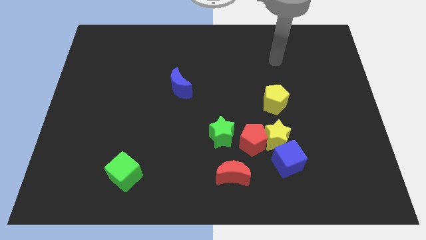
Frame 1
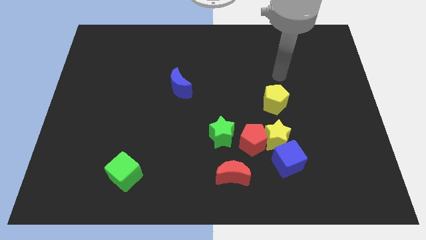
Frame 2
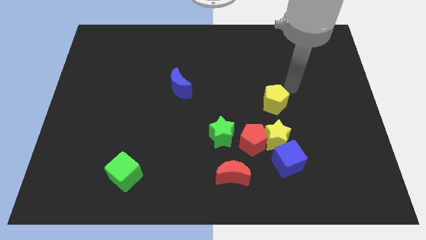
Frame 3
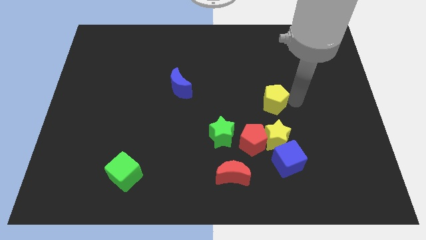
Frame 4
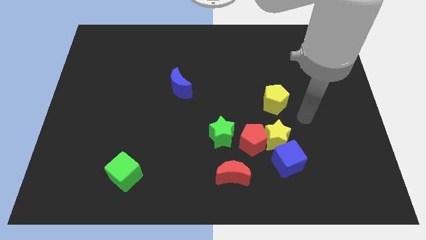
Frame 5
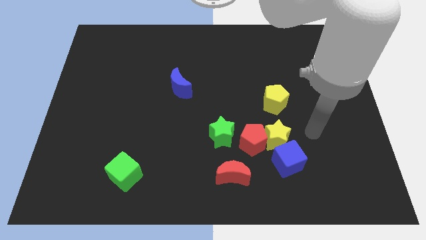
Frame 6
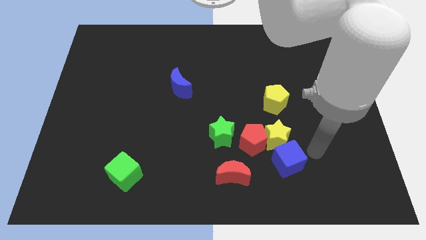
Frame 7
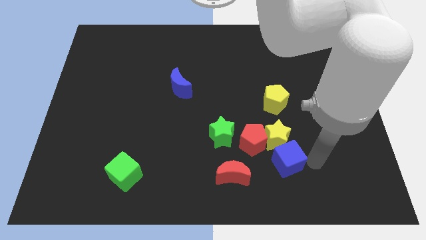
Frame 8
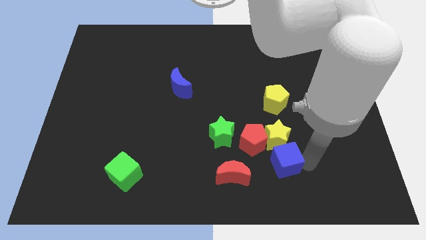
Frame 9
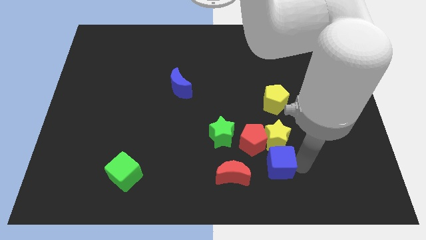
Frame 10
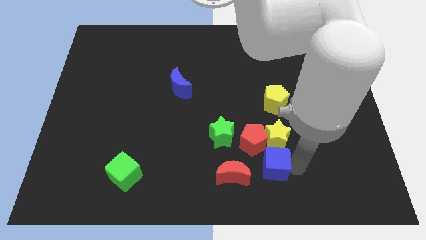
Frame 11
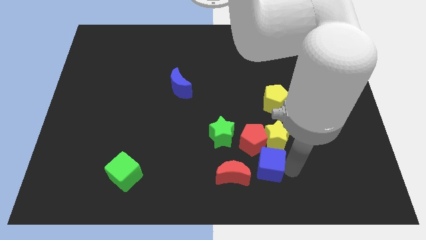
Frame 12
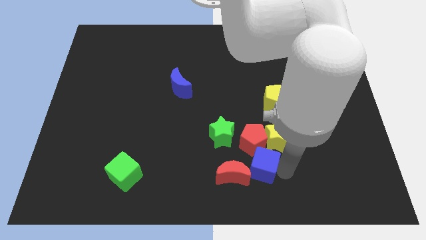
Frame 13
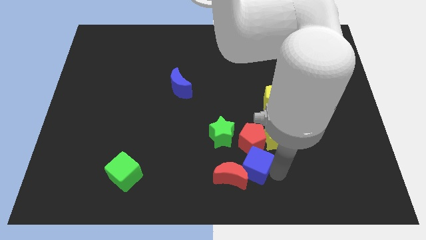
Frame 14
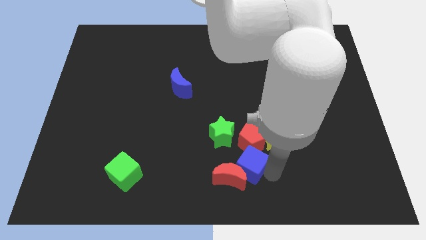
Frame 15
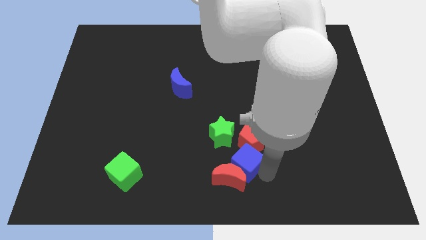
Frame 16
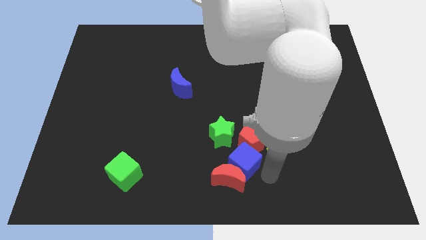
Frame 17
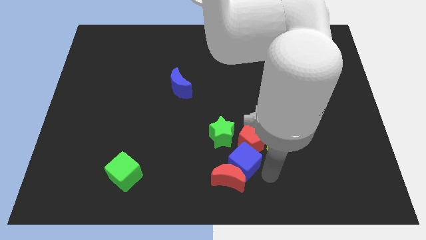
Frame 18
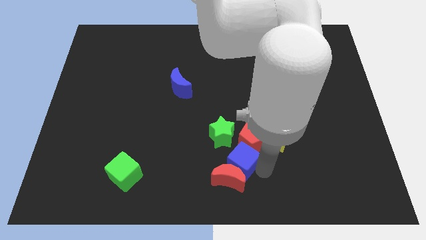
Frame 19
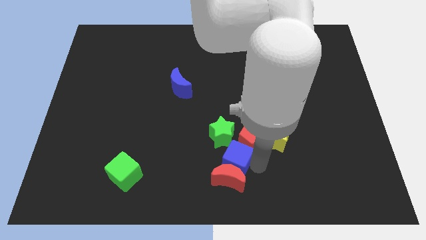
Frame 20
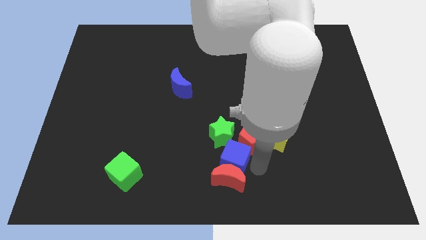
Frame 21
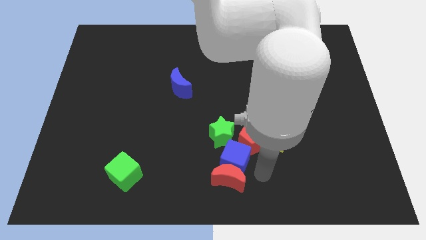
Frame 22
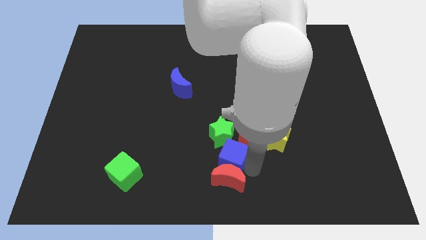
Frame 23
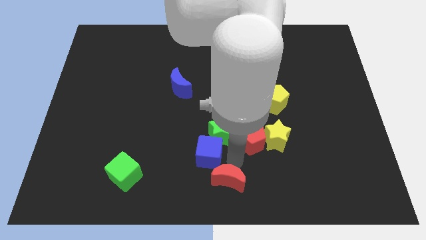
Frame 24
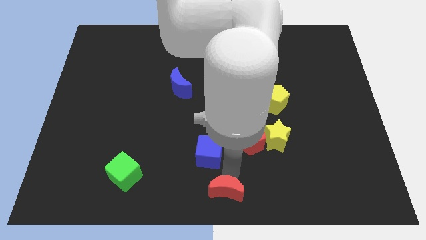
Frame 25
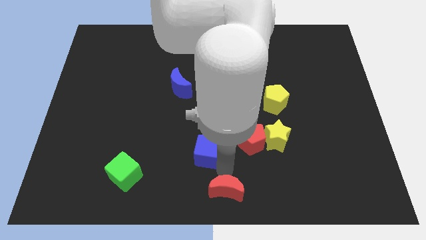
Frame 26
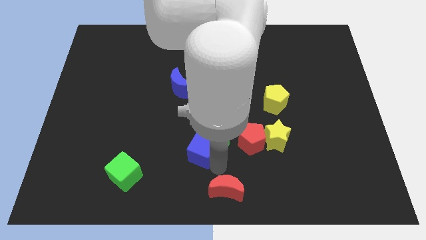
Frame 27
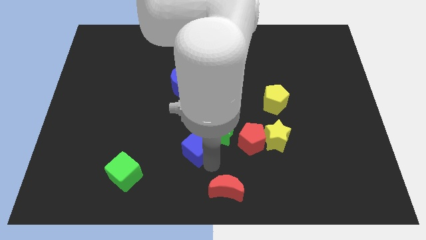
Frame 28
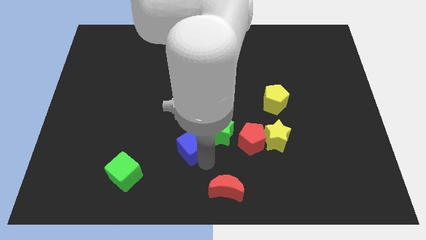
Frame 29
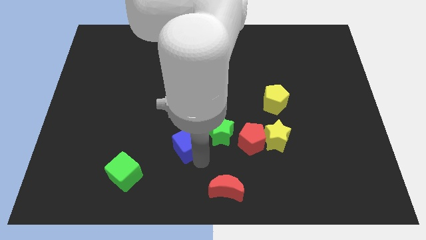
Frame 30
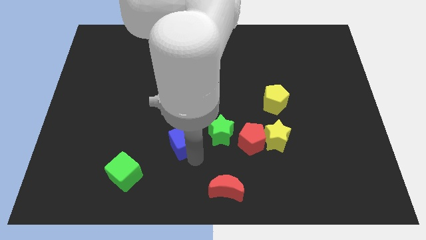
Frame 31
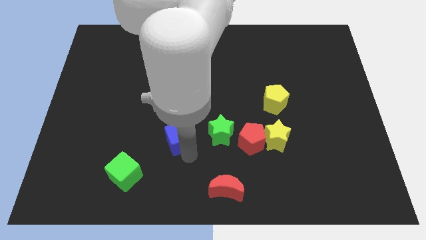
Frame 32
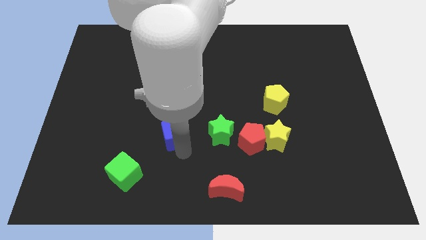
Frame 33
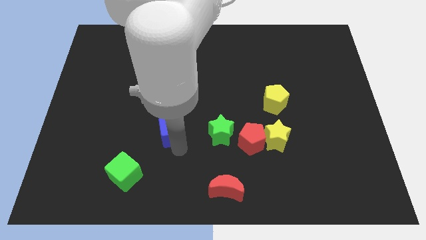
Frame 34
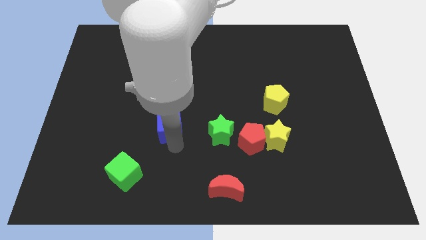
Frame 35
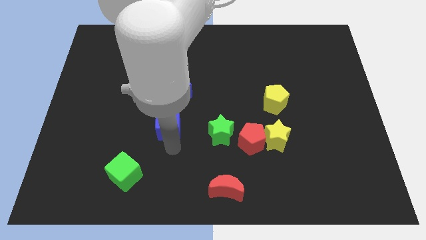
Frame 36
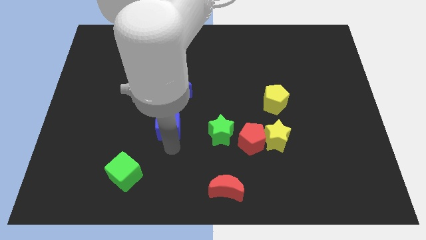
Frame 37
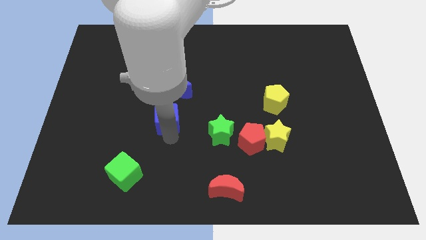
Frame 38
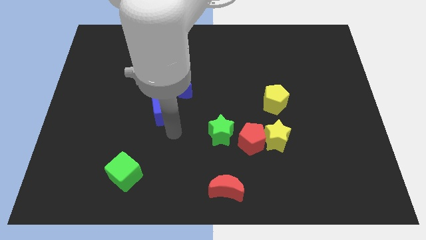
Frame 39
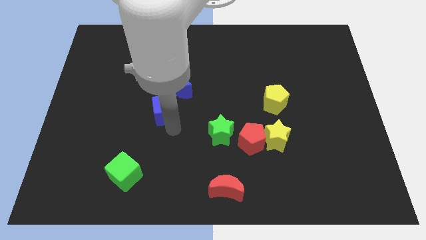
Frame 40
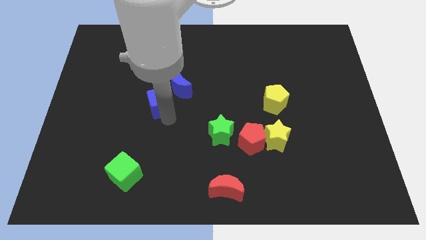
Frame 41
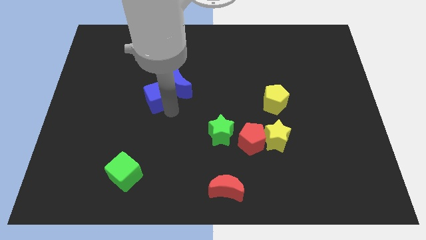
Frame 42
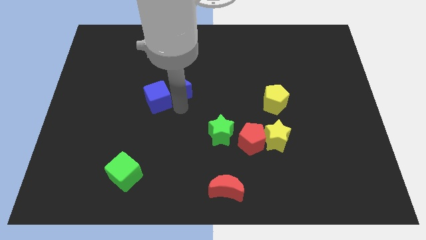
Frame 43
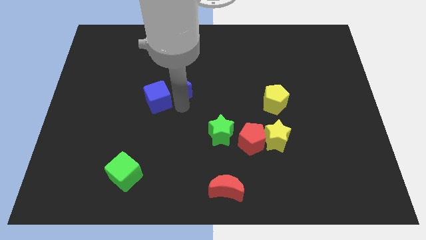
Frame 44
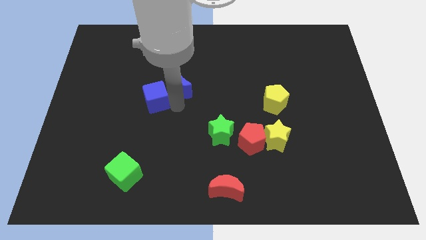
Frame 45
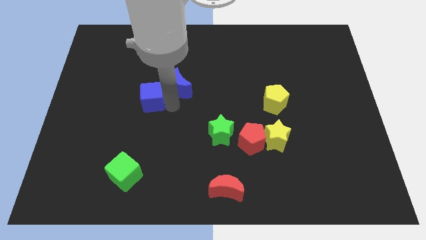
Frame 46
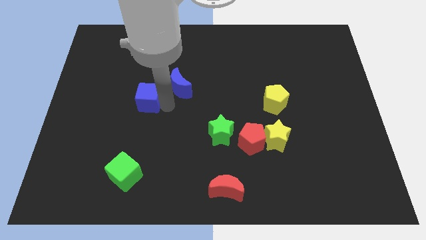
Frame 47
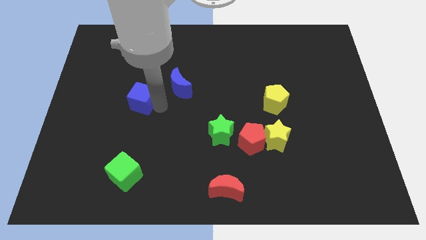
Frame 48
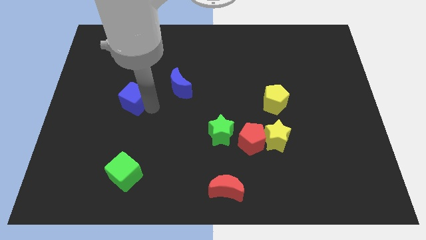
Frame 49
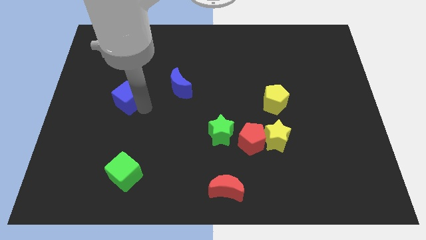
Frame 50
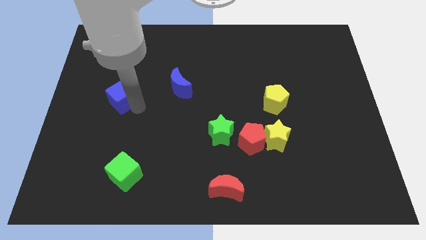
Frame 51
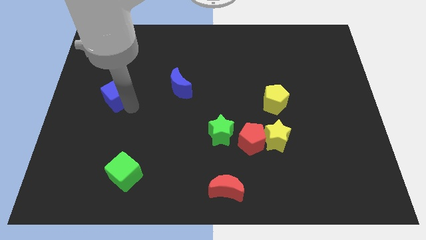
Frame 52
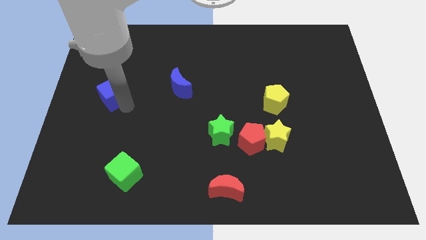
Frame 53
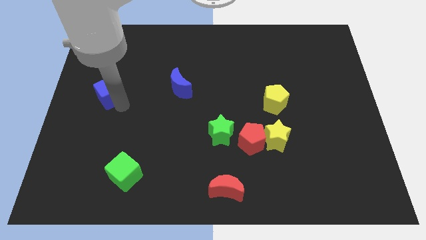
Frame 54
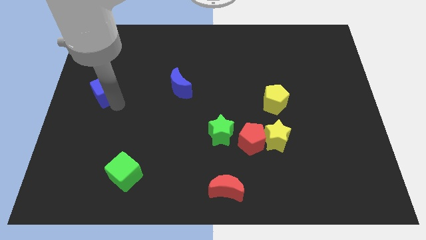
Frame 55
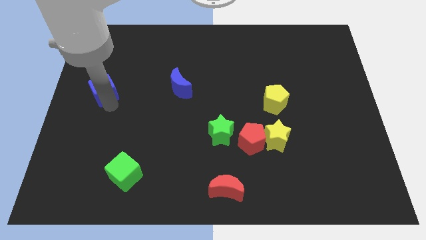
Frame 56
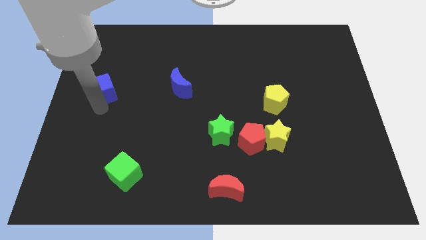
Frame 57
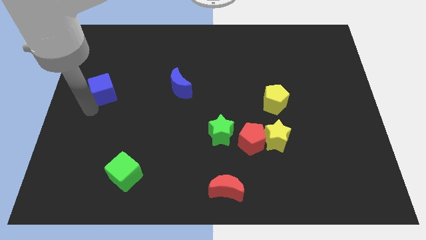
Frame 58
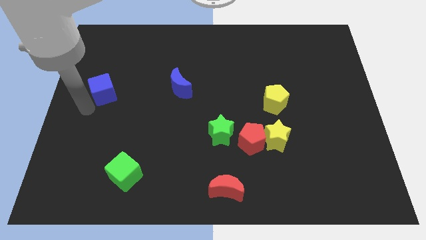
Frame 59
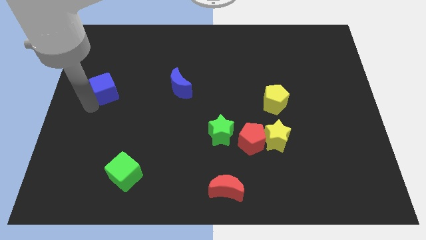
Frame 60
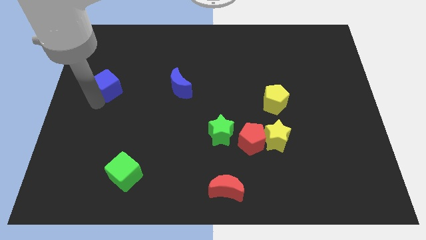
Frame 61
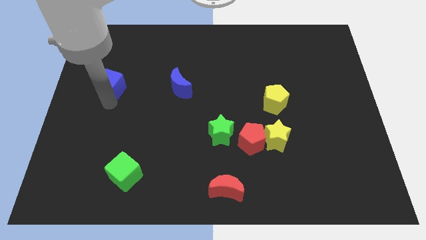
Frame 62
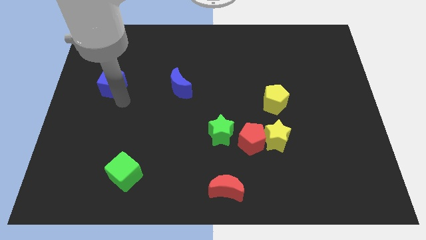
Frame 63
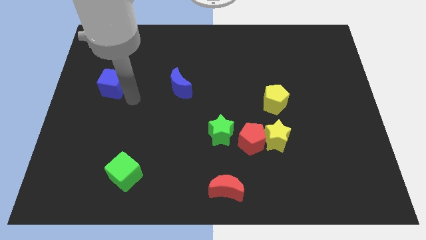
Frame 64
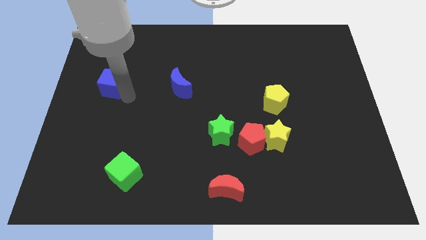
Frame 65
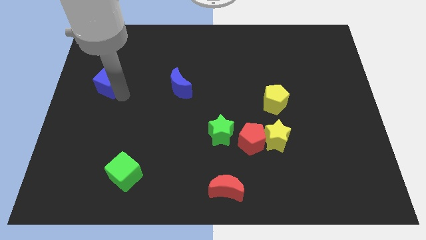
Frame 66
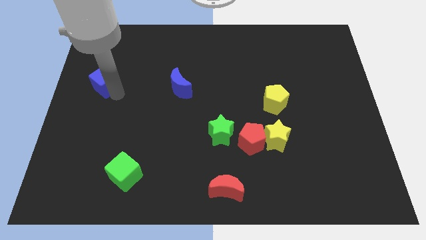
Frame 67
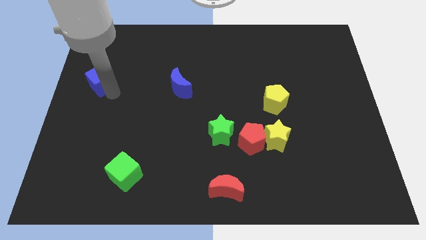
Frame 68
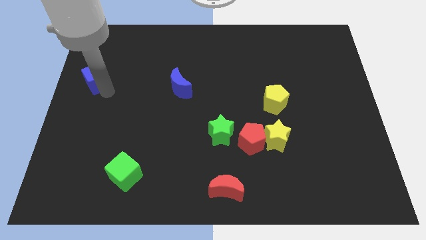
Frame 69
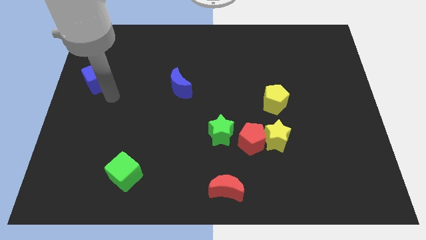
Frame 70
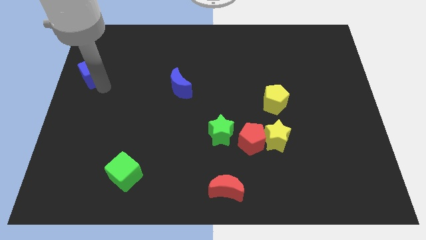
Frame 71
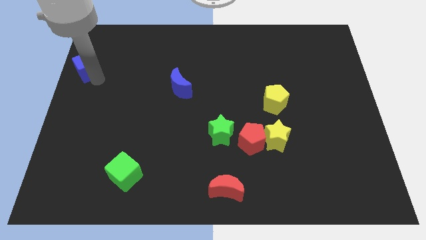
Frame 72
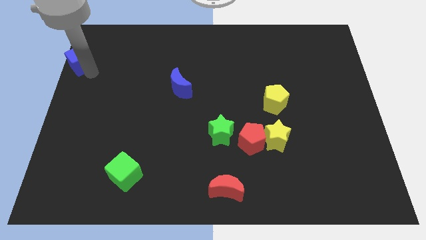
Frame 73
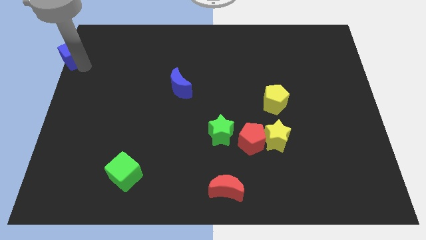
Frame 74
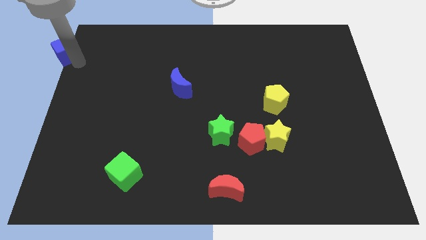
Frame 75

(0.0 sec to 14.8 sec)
slide the blue cube to the top left of the board
